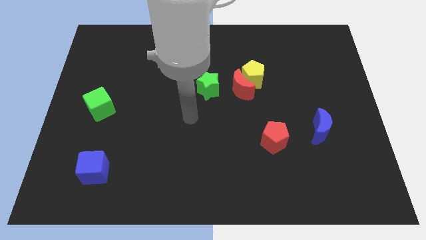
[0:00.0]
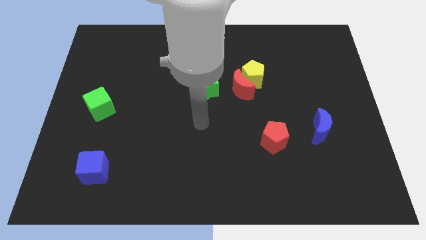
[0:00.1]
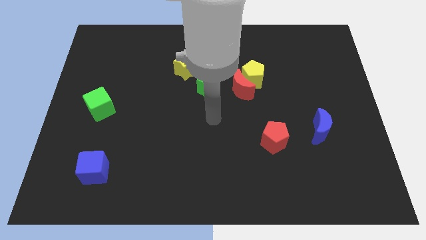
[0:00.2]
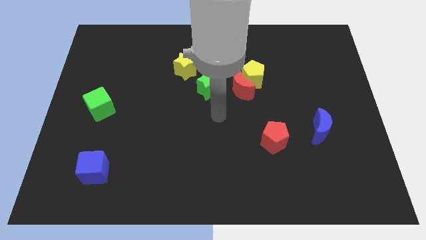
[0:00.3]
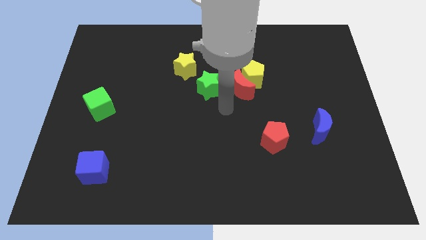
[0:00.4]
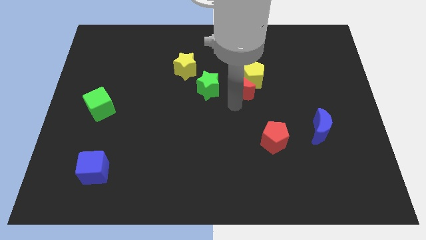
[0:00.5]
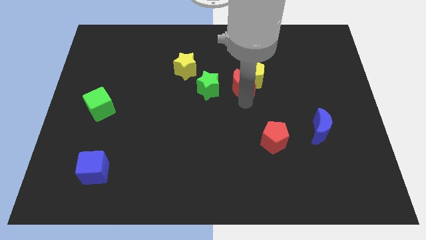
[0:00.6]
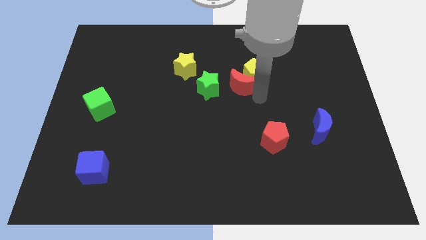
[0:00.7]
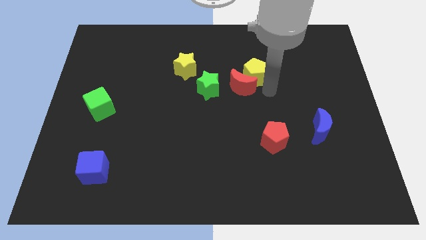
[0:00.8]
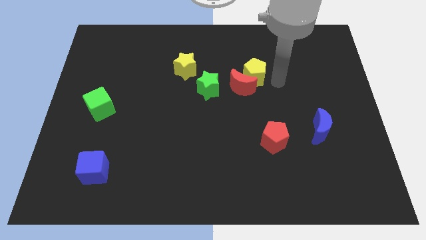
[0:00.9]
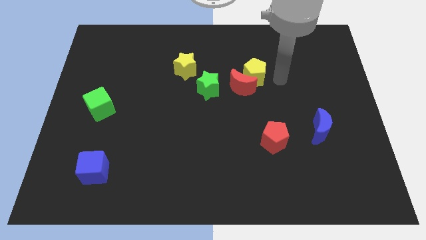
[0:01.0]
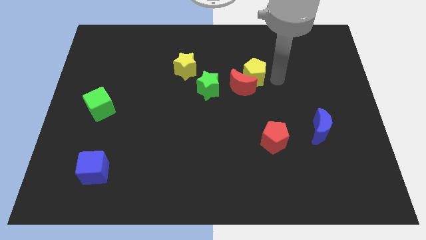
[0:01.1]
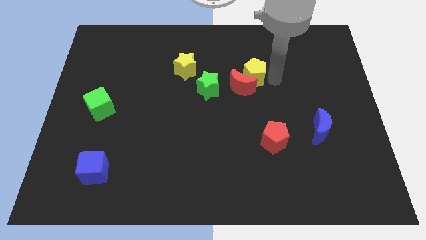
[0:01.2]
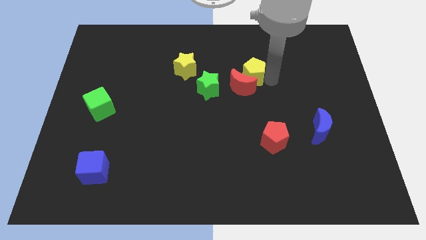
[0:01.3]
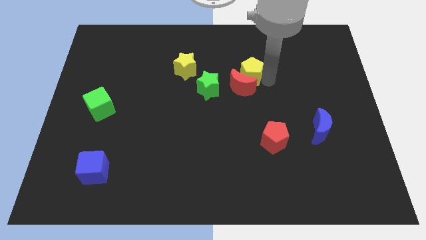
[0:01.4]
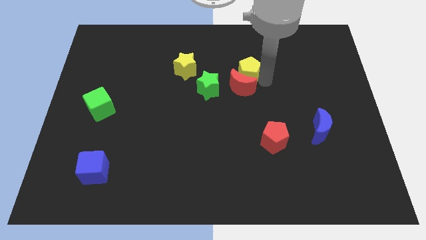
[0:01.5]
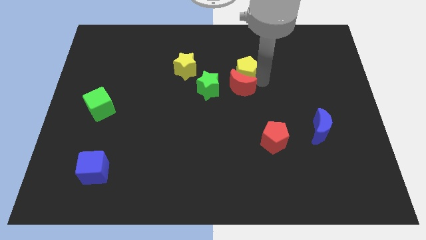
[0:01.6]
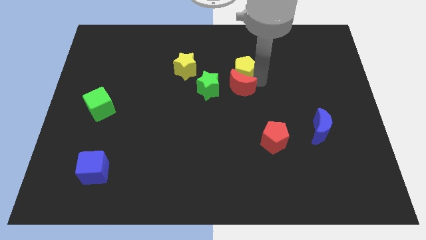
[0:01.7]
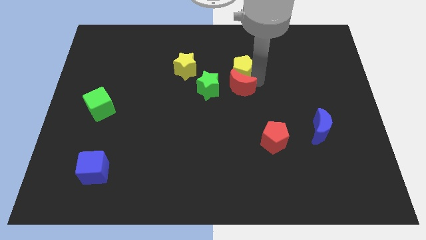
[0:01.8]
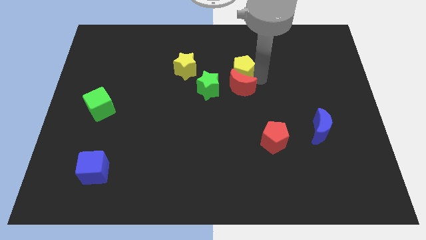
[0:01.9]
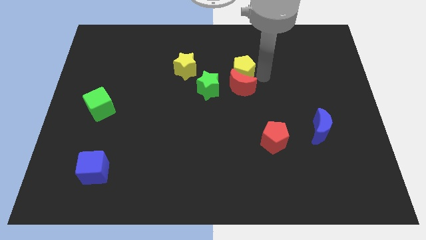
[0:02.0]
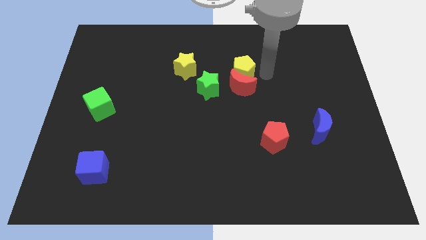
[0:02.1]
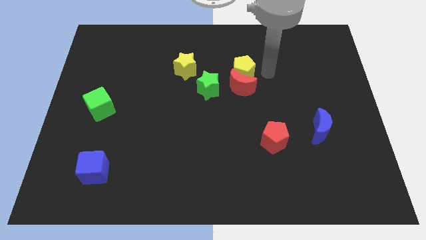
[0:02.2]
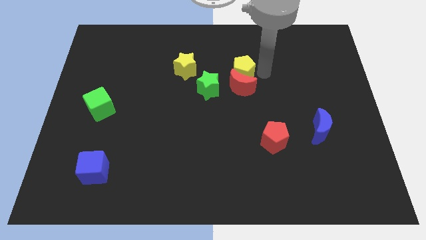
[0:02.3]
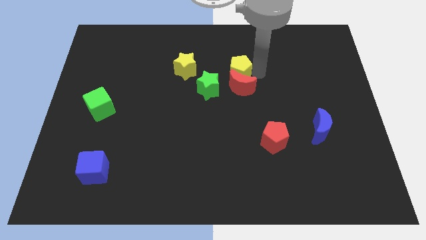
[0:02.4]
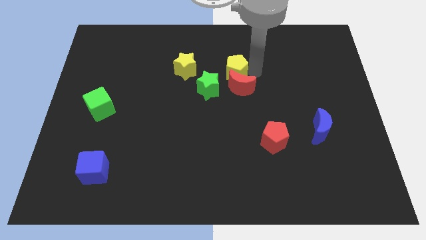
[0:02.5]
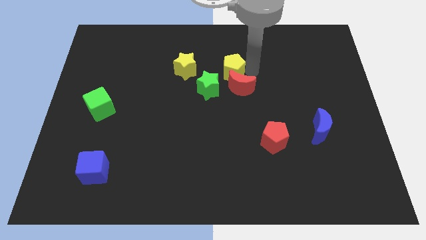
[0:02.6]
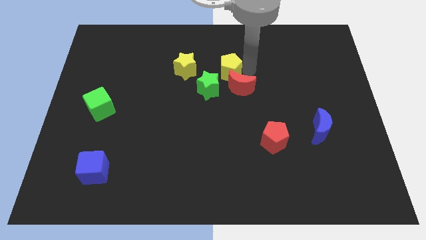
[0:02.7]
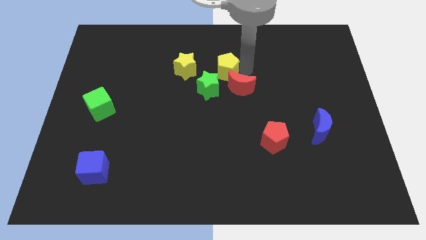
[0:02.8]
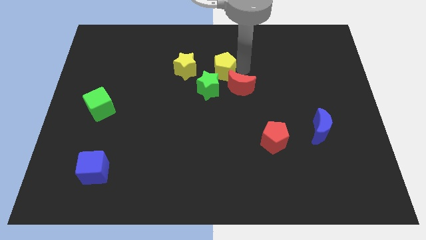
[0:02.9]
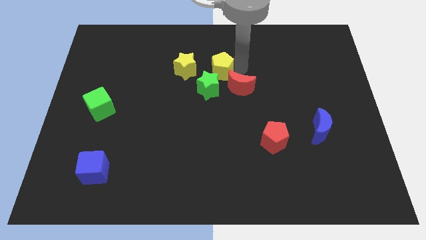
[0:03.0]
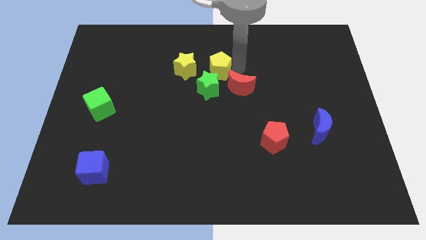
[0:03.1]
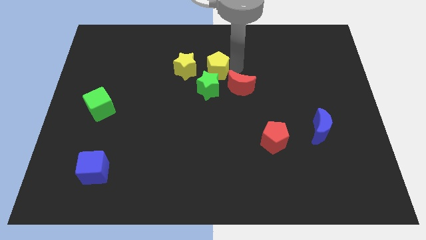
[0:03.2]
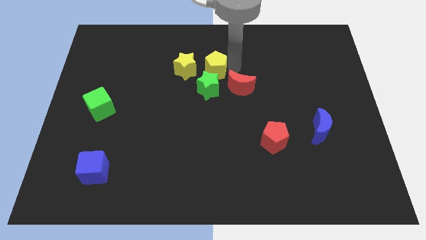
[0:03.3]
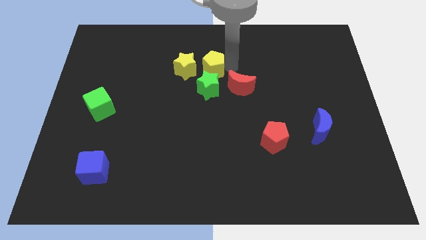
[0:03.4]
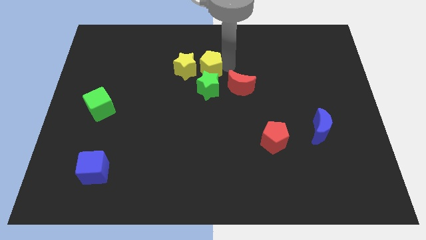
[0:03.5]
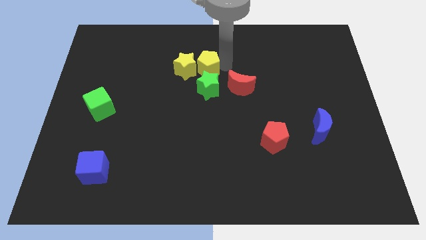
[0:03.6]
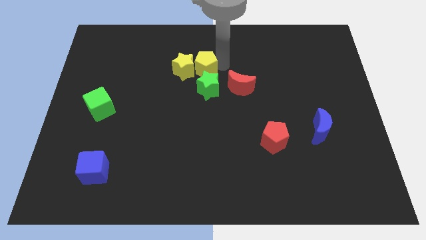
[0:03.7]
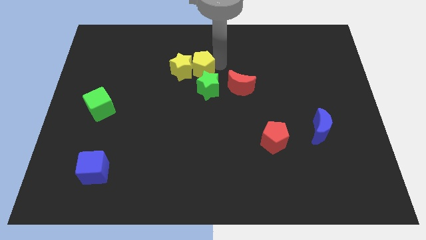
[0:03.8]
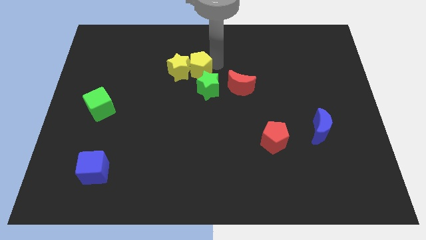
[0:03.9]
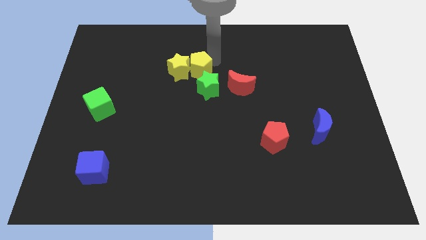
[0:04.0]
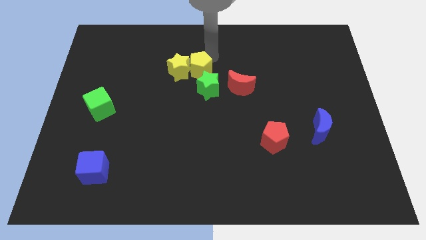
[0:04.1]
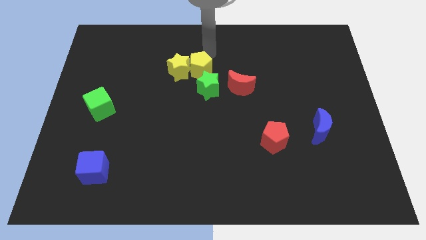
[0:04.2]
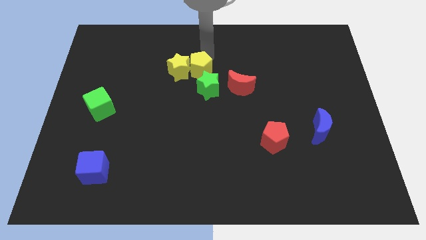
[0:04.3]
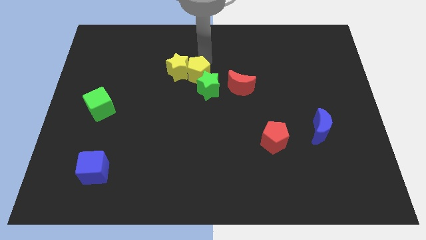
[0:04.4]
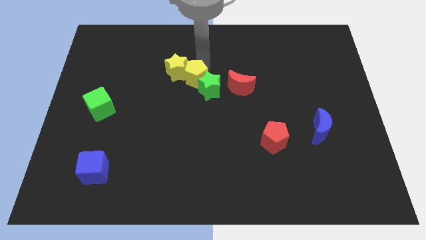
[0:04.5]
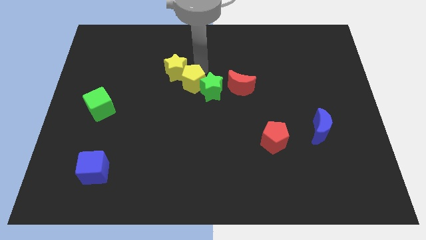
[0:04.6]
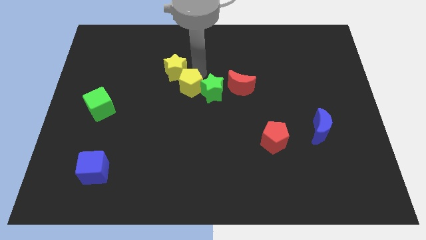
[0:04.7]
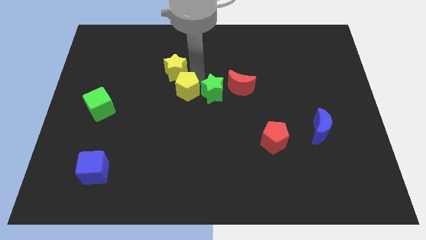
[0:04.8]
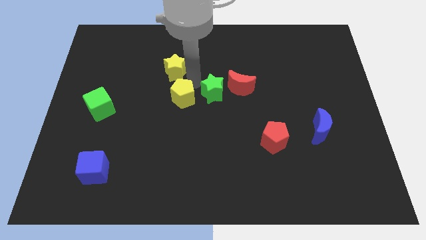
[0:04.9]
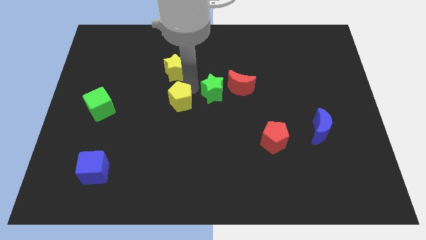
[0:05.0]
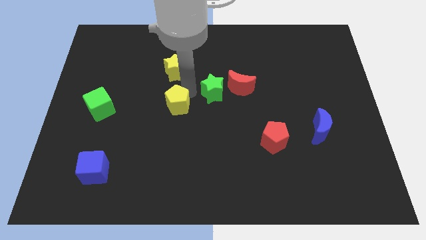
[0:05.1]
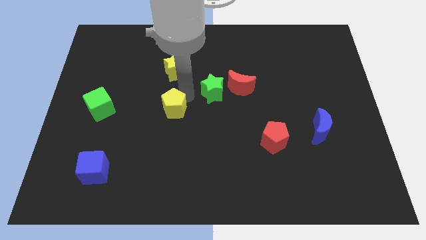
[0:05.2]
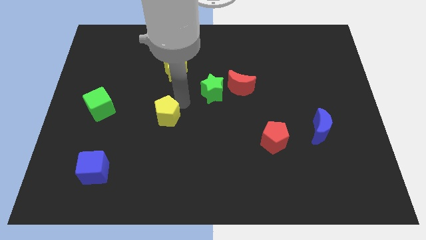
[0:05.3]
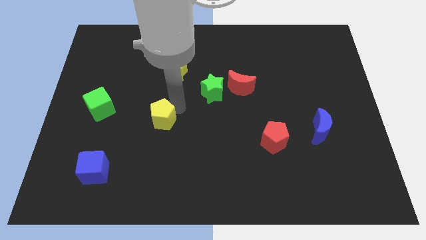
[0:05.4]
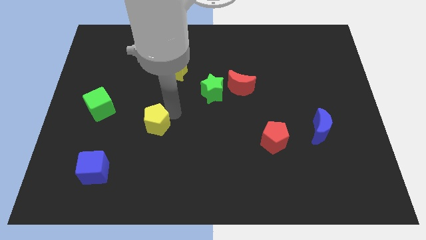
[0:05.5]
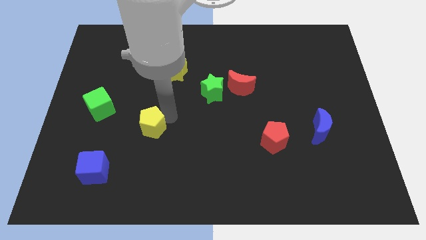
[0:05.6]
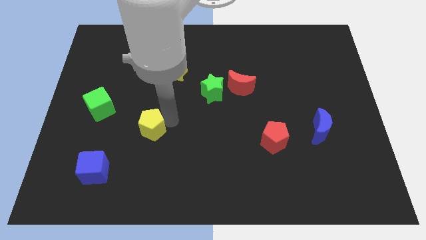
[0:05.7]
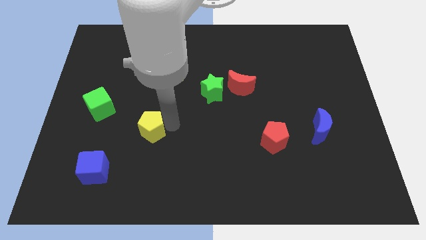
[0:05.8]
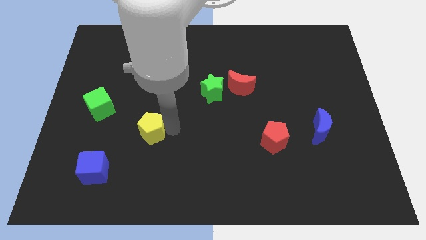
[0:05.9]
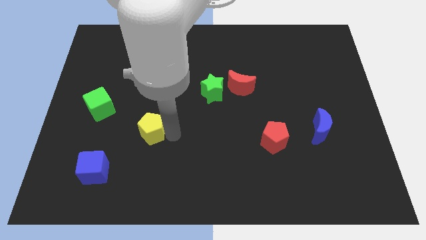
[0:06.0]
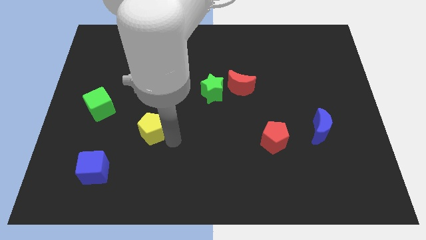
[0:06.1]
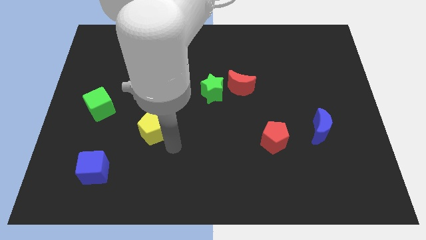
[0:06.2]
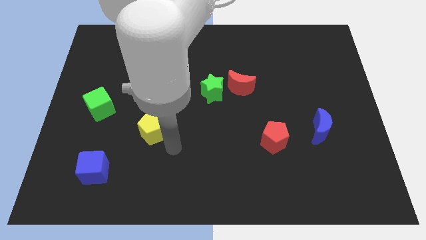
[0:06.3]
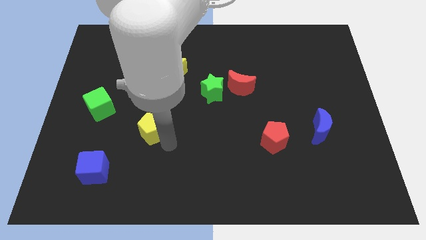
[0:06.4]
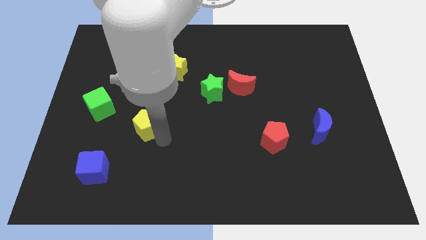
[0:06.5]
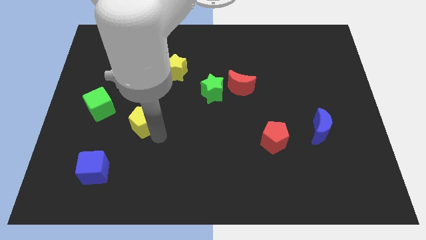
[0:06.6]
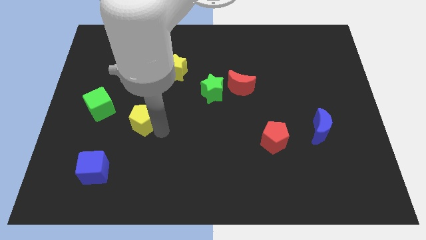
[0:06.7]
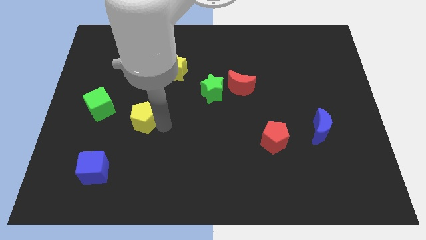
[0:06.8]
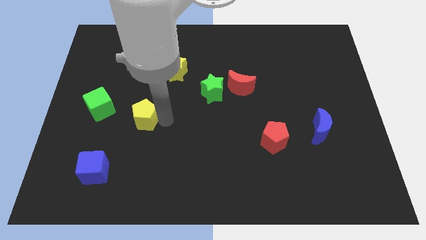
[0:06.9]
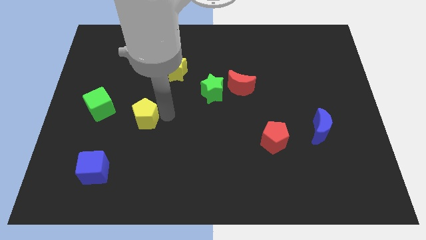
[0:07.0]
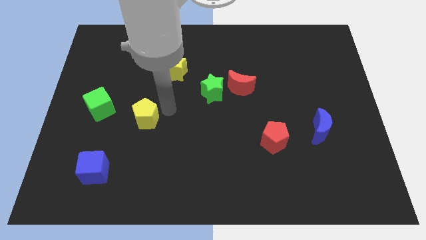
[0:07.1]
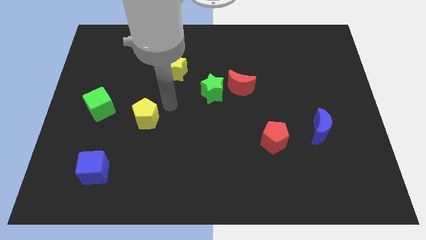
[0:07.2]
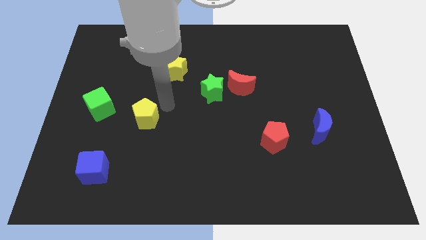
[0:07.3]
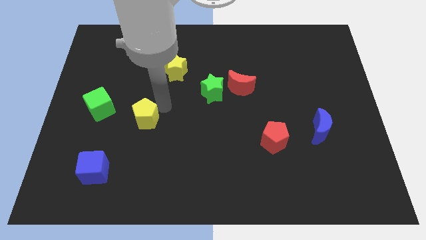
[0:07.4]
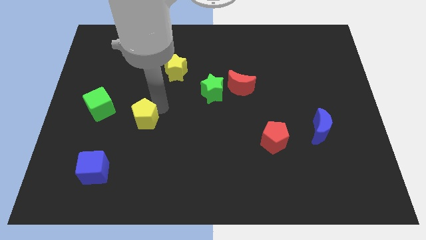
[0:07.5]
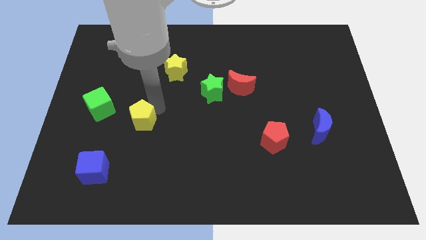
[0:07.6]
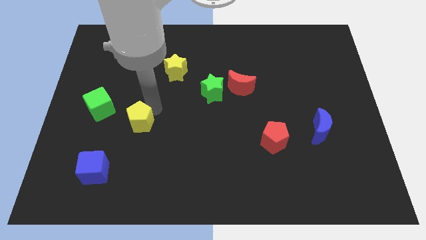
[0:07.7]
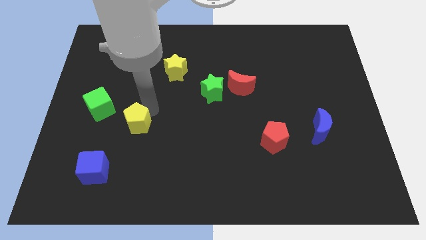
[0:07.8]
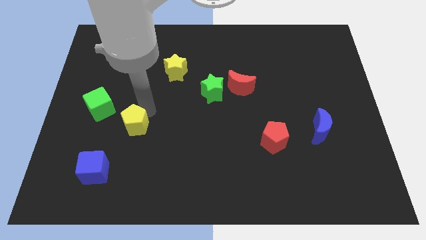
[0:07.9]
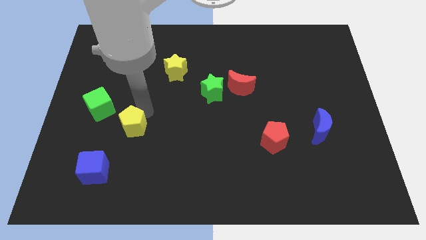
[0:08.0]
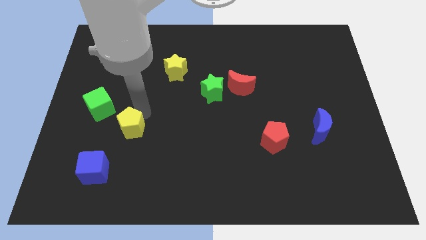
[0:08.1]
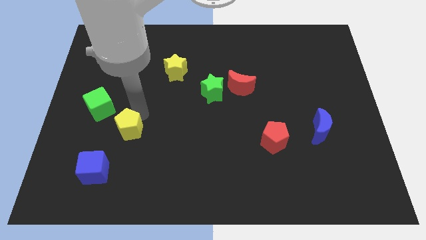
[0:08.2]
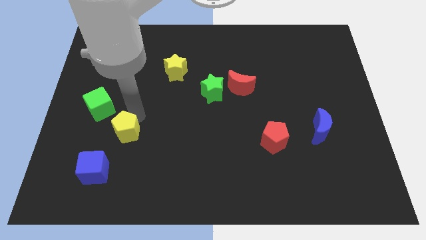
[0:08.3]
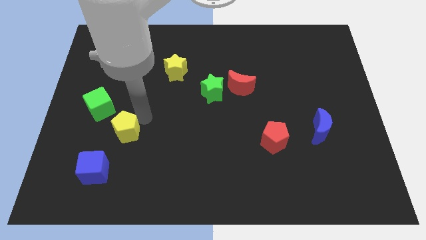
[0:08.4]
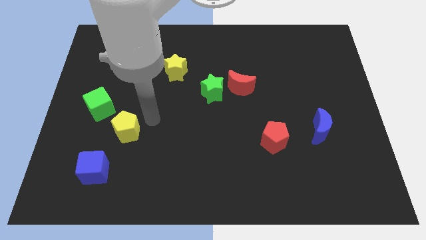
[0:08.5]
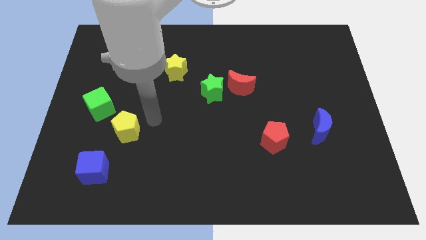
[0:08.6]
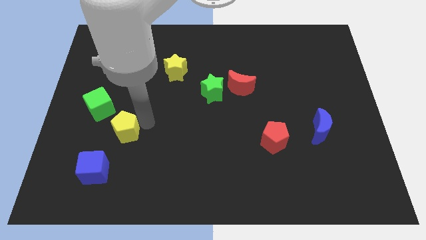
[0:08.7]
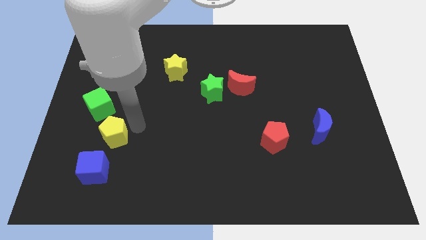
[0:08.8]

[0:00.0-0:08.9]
push the yellow pentagon to the bottom side of the green cube
